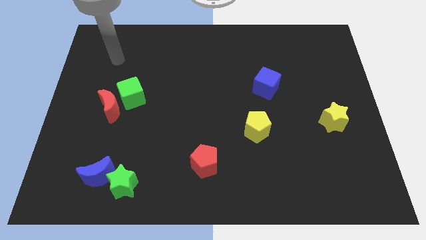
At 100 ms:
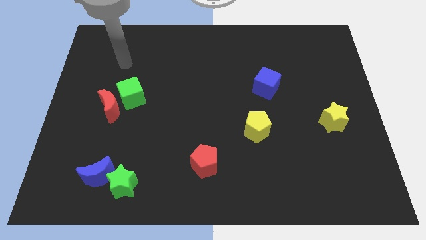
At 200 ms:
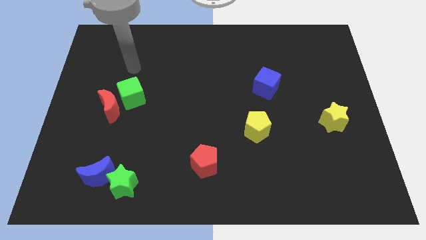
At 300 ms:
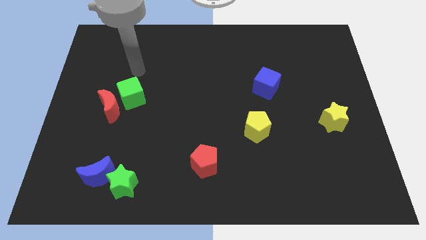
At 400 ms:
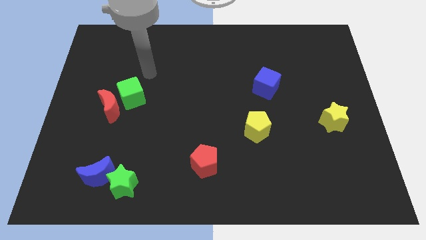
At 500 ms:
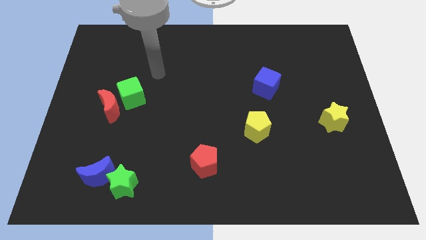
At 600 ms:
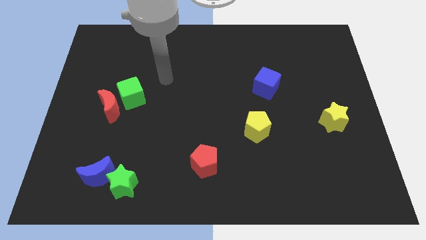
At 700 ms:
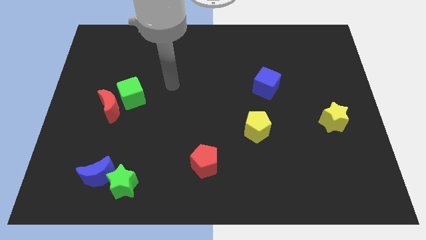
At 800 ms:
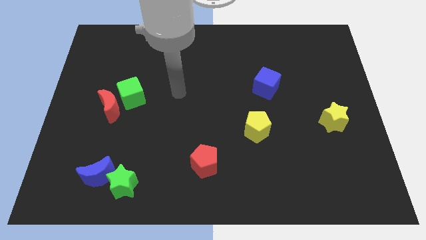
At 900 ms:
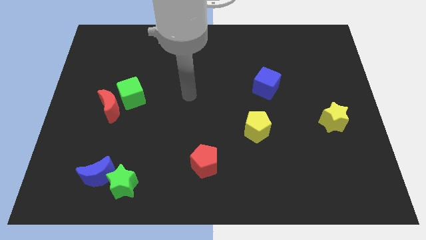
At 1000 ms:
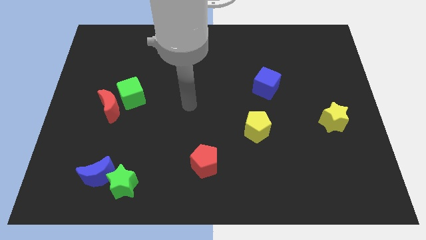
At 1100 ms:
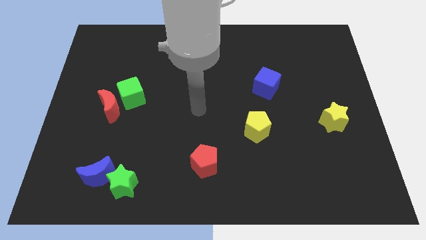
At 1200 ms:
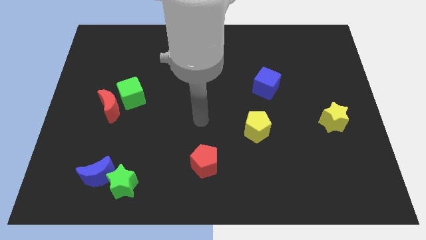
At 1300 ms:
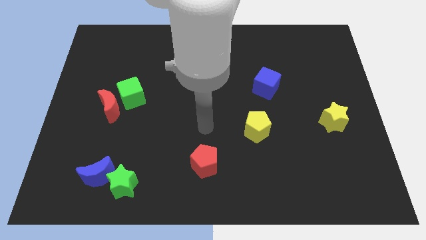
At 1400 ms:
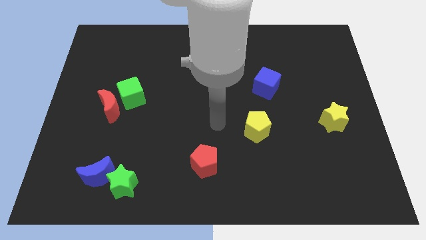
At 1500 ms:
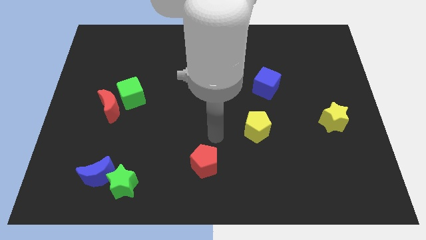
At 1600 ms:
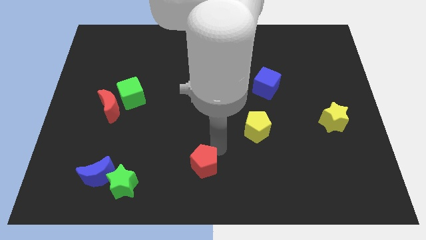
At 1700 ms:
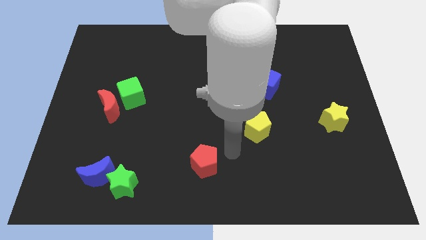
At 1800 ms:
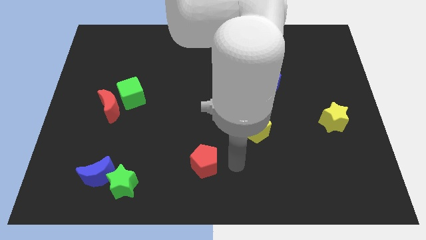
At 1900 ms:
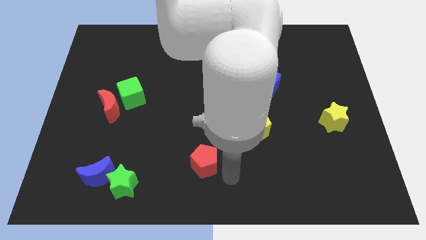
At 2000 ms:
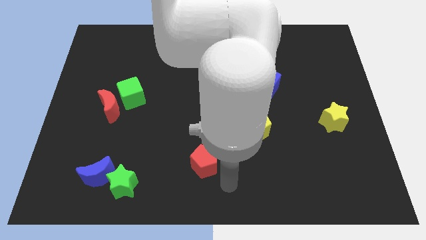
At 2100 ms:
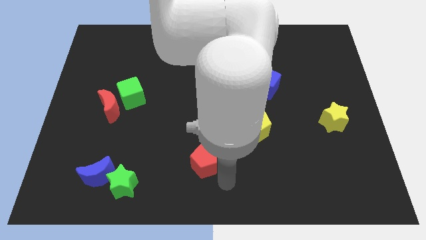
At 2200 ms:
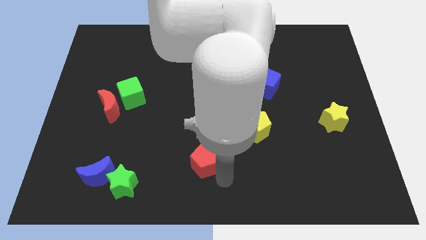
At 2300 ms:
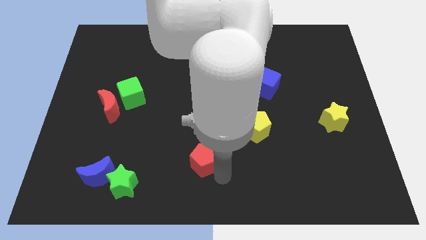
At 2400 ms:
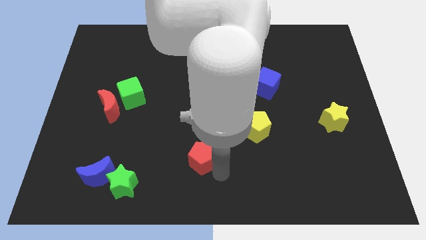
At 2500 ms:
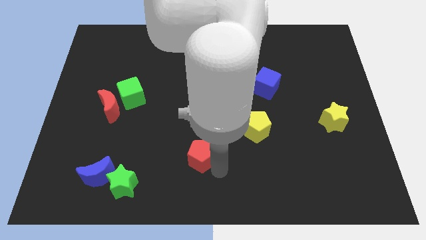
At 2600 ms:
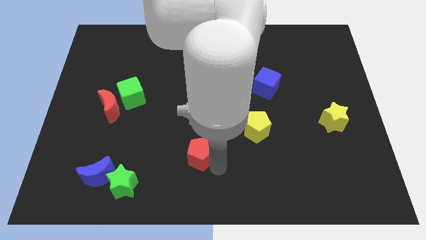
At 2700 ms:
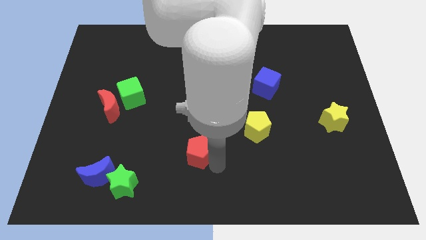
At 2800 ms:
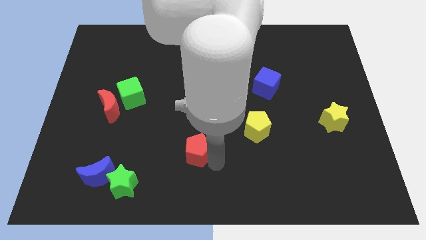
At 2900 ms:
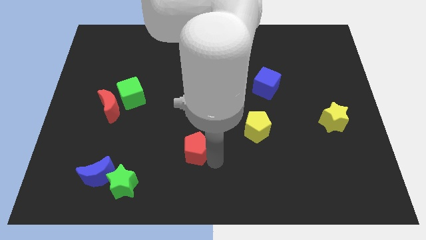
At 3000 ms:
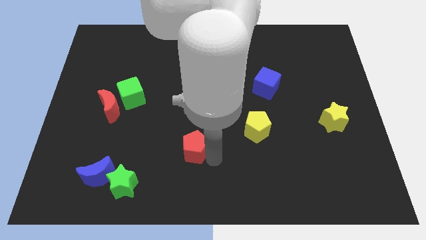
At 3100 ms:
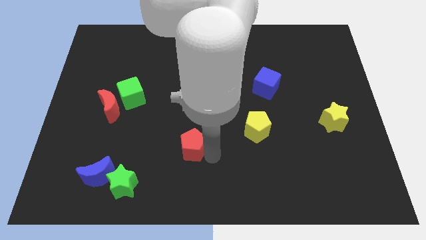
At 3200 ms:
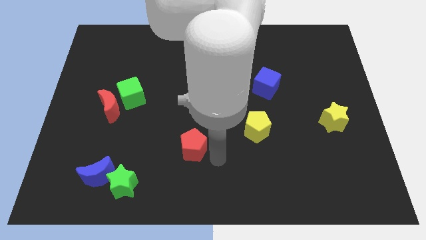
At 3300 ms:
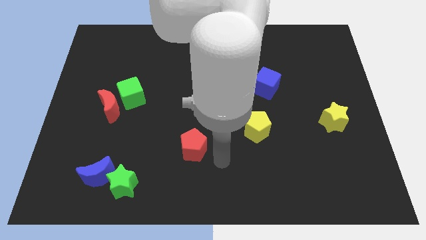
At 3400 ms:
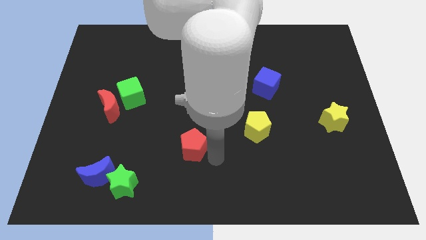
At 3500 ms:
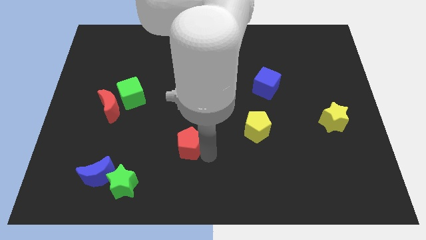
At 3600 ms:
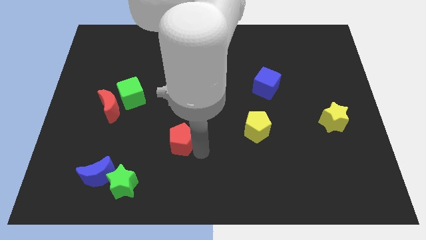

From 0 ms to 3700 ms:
slightly slide the red pentagon upwards and then to the left

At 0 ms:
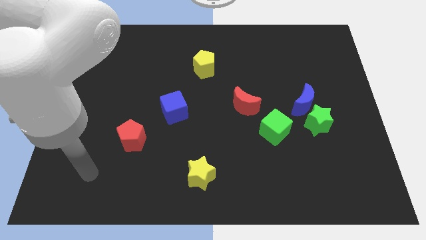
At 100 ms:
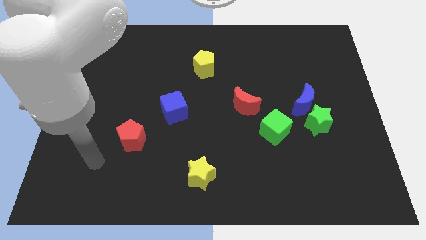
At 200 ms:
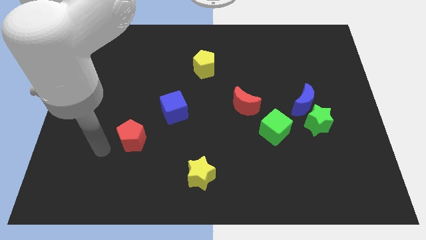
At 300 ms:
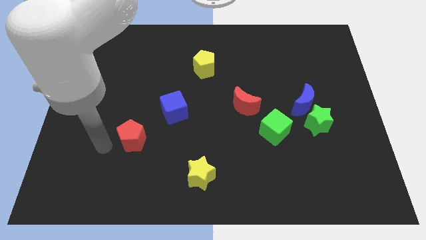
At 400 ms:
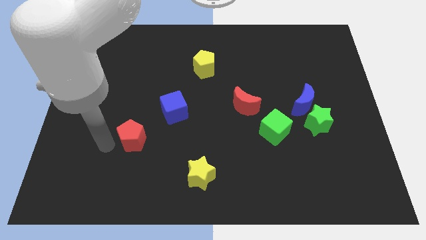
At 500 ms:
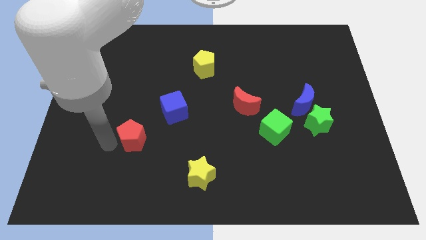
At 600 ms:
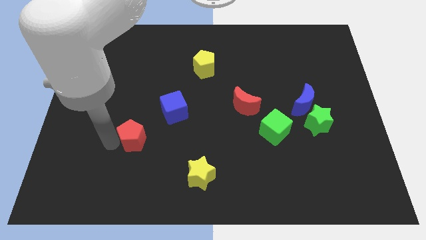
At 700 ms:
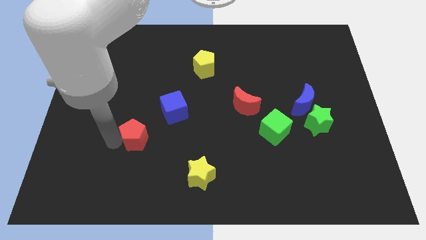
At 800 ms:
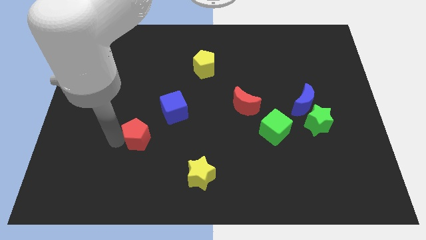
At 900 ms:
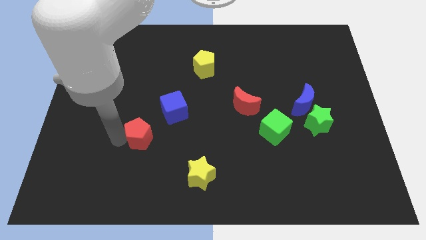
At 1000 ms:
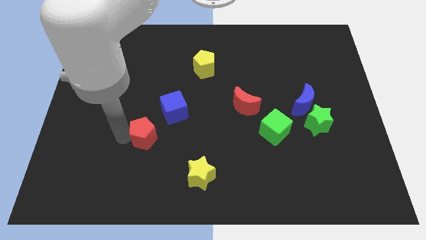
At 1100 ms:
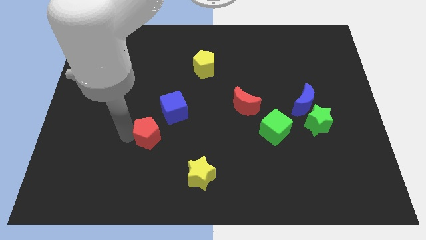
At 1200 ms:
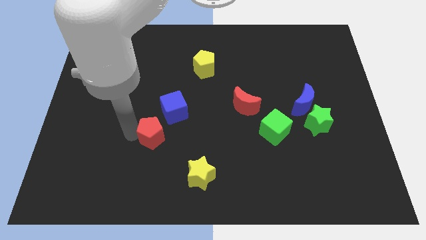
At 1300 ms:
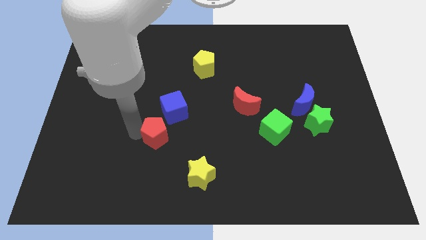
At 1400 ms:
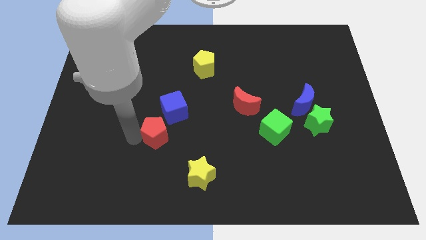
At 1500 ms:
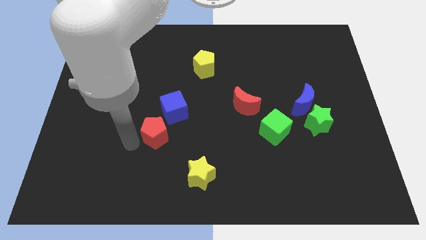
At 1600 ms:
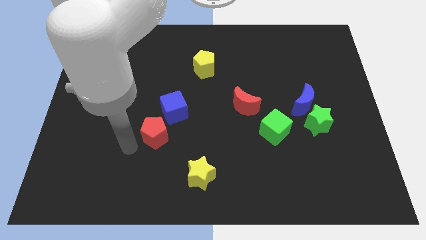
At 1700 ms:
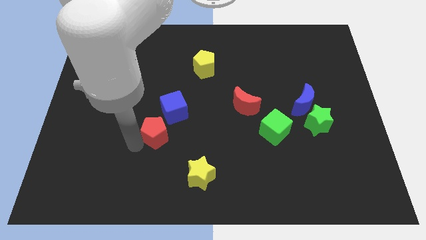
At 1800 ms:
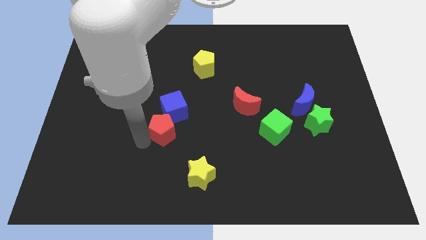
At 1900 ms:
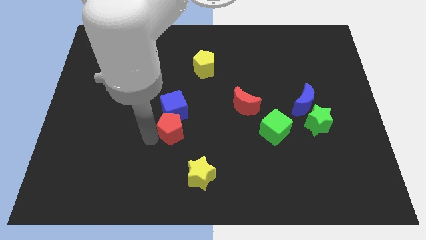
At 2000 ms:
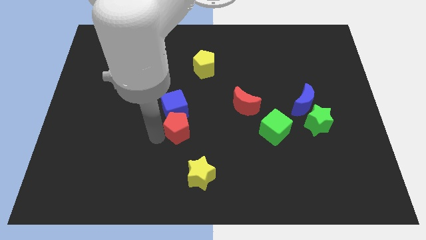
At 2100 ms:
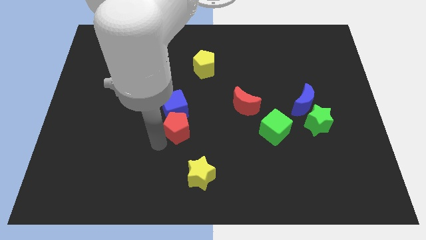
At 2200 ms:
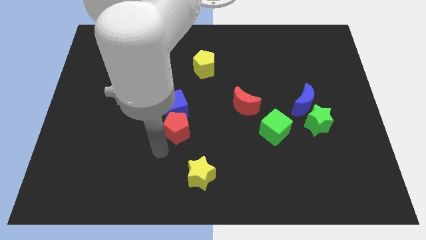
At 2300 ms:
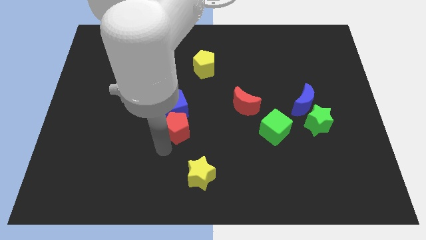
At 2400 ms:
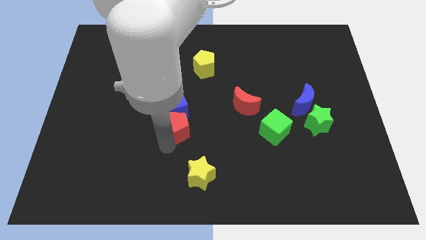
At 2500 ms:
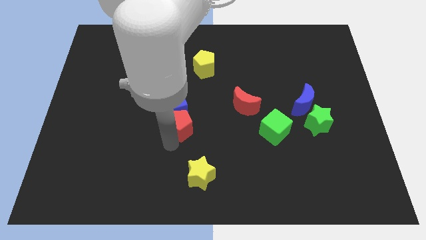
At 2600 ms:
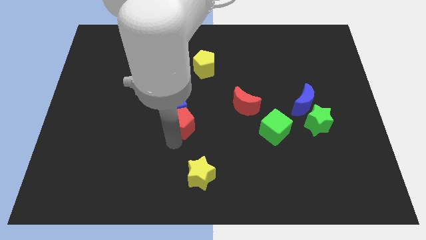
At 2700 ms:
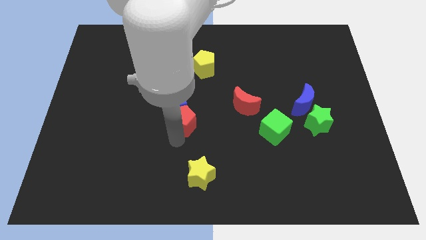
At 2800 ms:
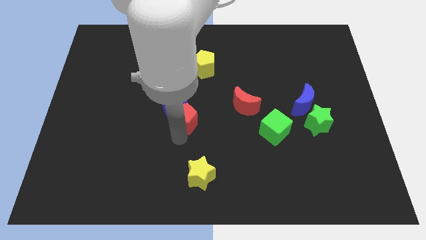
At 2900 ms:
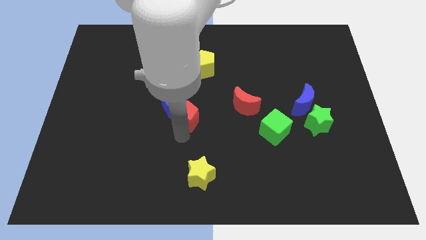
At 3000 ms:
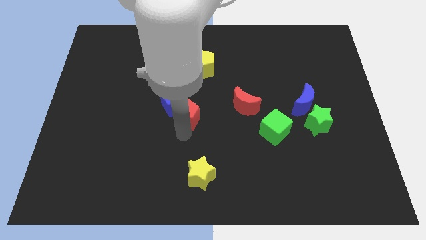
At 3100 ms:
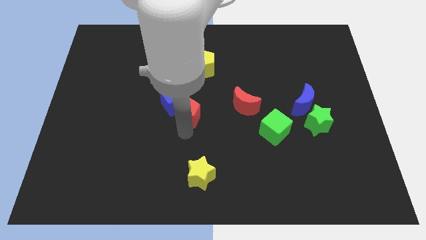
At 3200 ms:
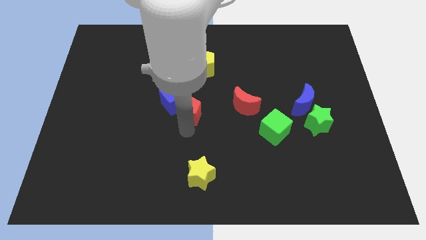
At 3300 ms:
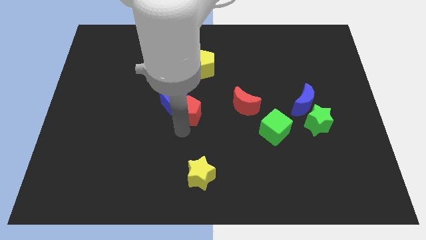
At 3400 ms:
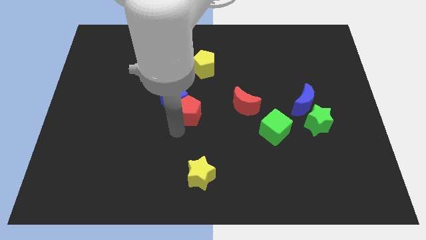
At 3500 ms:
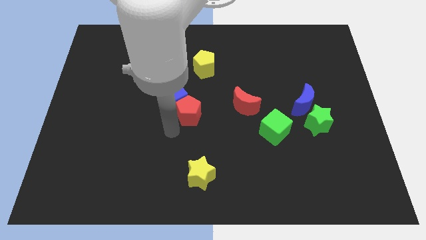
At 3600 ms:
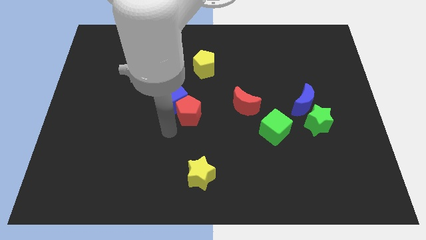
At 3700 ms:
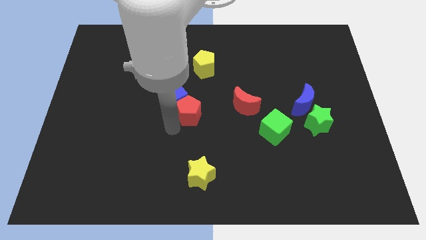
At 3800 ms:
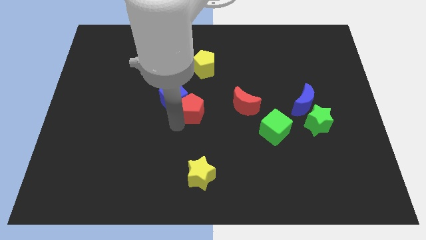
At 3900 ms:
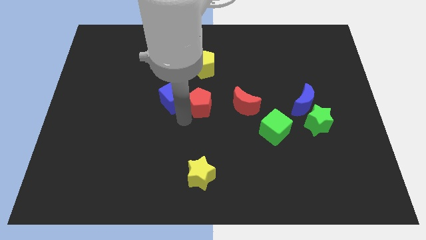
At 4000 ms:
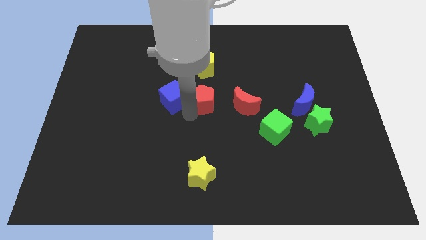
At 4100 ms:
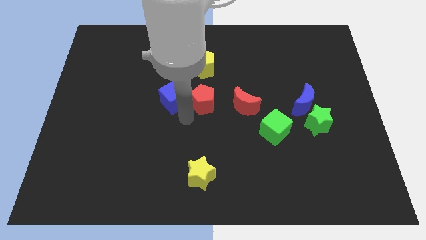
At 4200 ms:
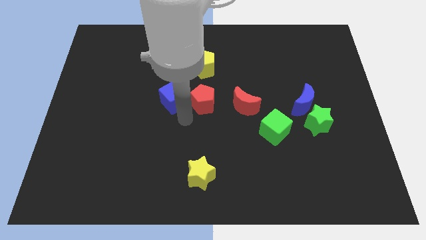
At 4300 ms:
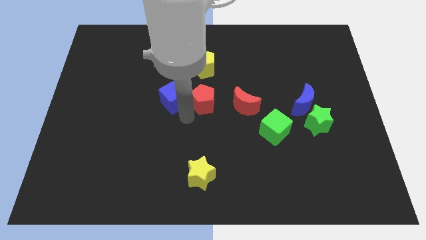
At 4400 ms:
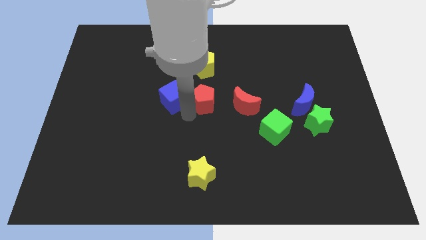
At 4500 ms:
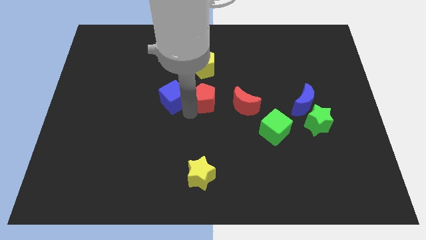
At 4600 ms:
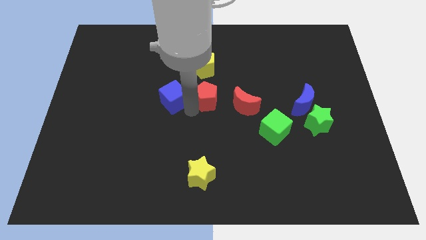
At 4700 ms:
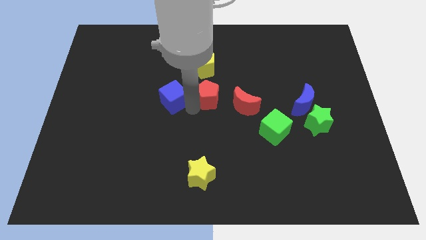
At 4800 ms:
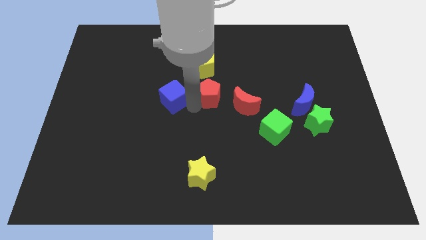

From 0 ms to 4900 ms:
move the red pentagon upwards and to the right
